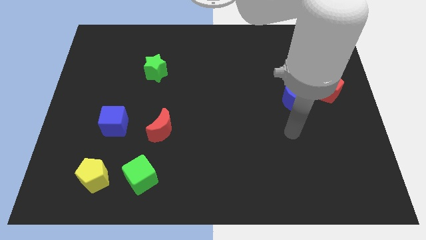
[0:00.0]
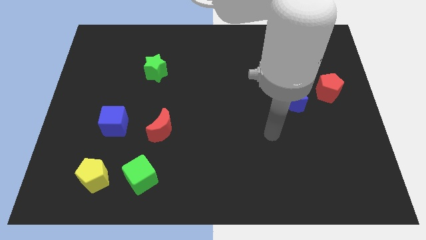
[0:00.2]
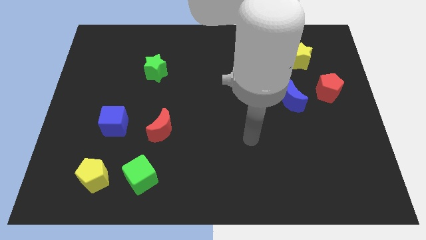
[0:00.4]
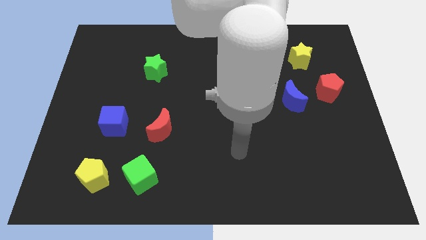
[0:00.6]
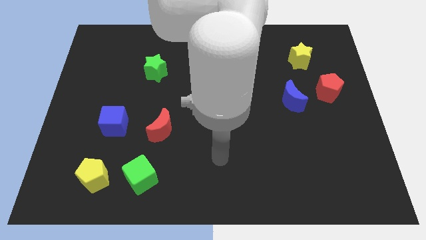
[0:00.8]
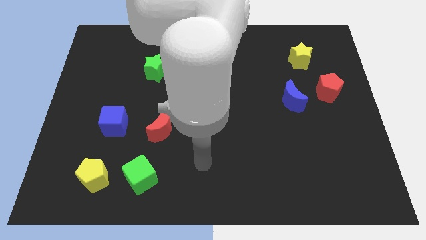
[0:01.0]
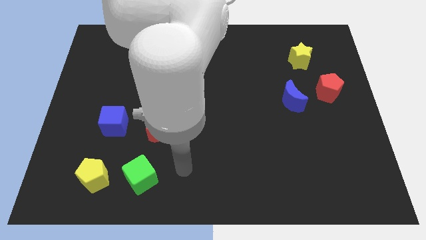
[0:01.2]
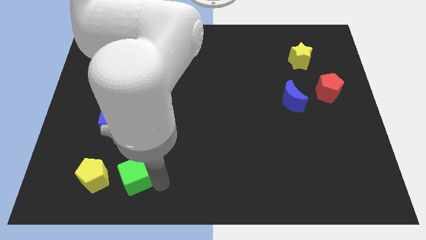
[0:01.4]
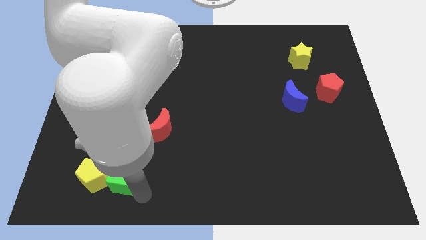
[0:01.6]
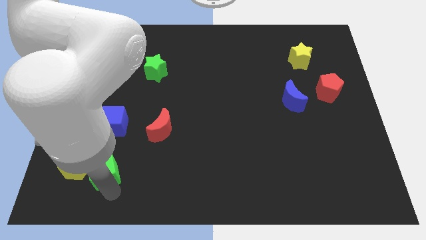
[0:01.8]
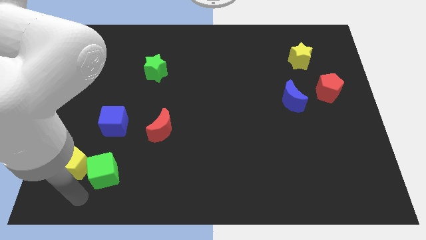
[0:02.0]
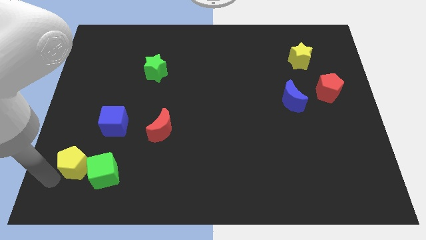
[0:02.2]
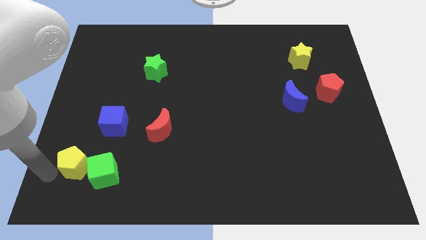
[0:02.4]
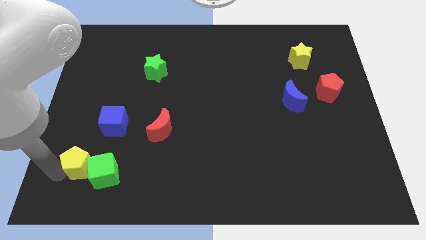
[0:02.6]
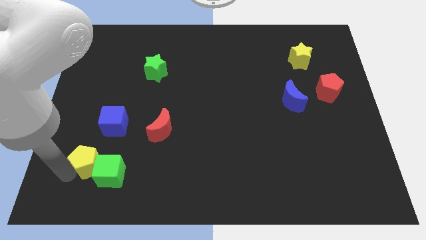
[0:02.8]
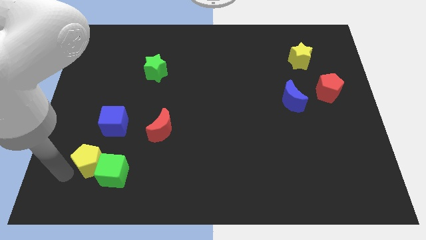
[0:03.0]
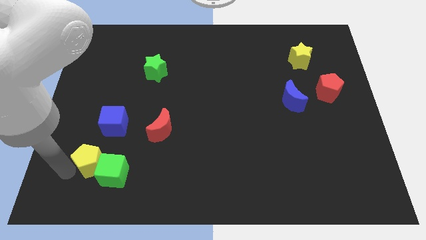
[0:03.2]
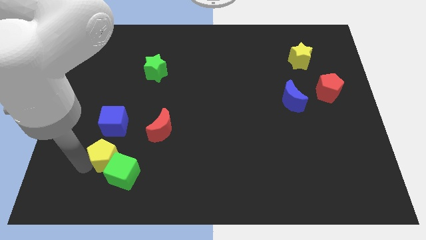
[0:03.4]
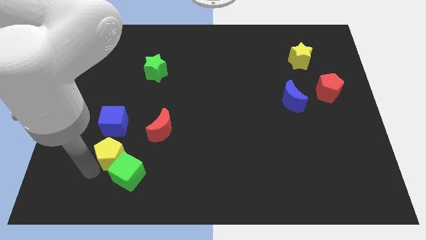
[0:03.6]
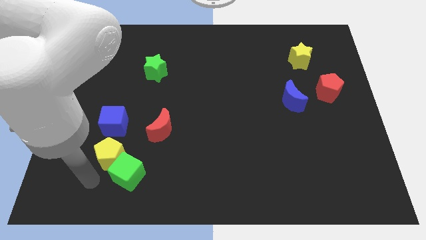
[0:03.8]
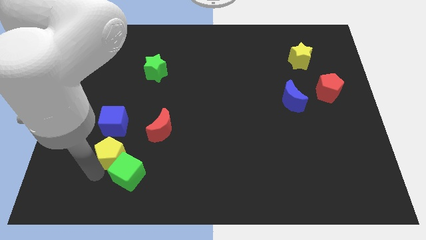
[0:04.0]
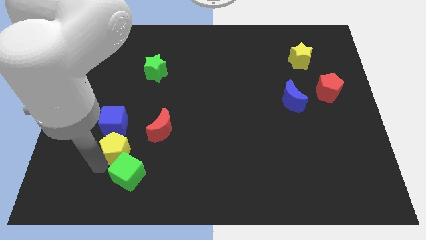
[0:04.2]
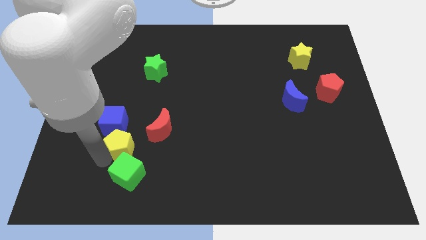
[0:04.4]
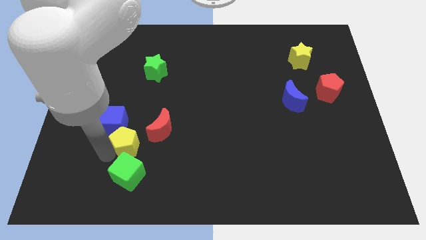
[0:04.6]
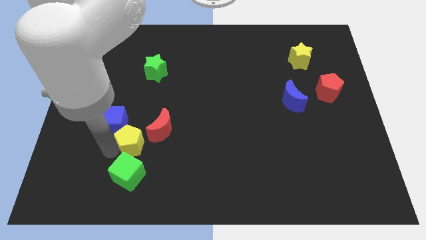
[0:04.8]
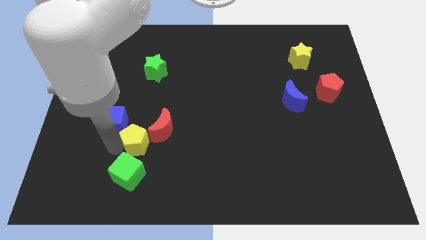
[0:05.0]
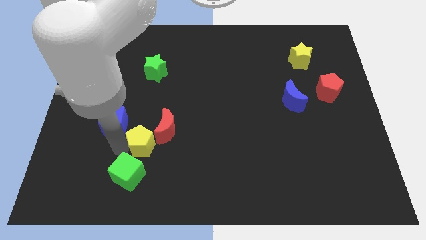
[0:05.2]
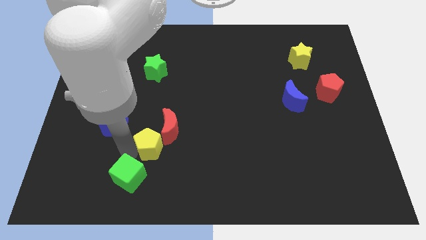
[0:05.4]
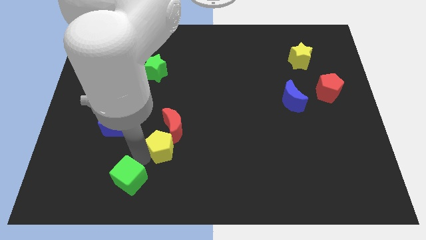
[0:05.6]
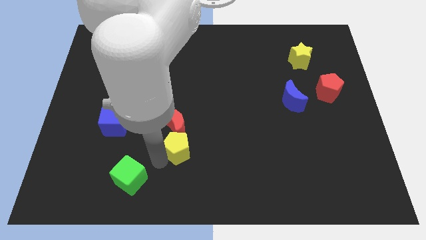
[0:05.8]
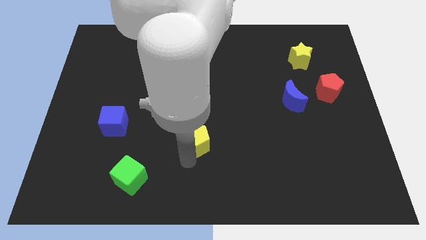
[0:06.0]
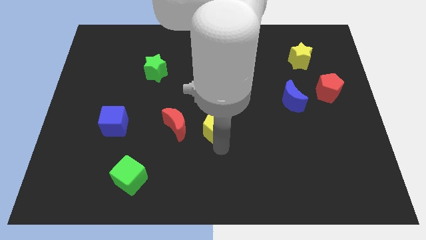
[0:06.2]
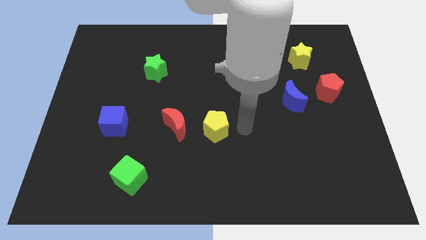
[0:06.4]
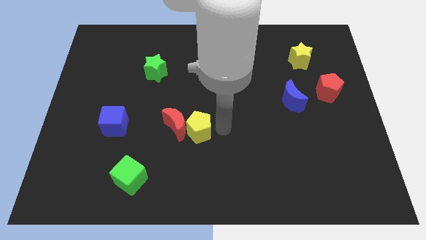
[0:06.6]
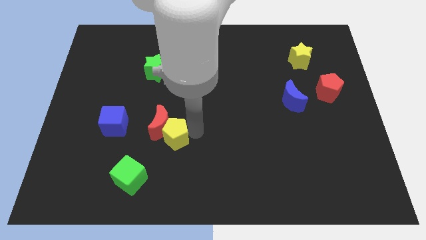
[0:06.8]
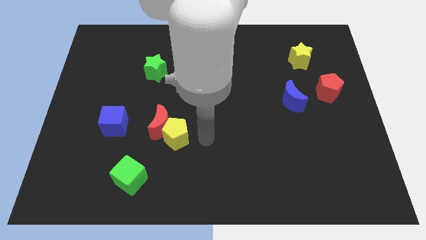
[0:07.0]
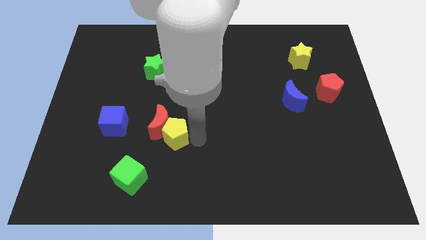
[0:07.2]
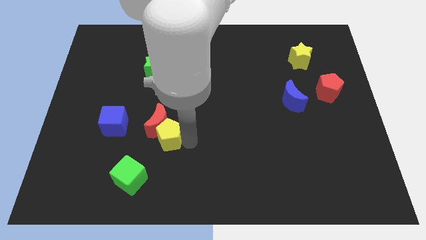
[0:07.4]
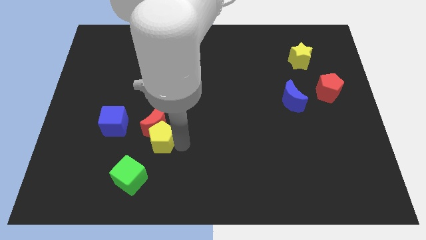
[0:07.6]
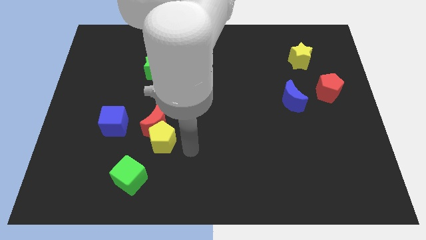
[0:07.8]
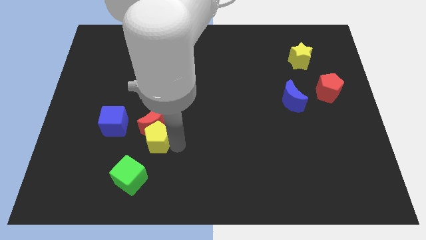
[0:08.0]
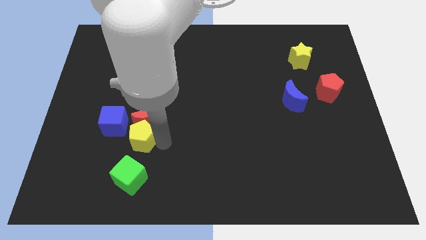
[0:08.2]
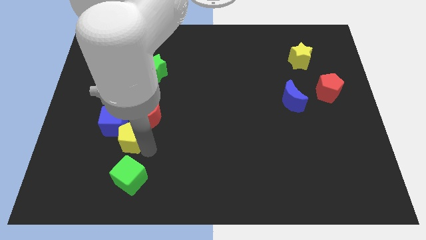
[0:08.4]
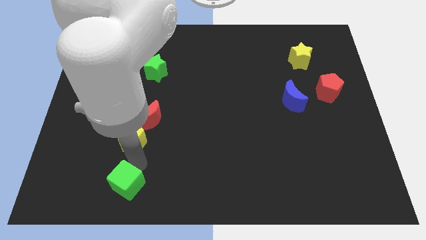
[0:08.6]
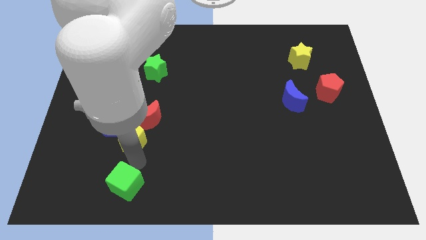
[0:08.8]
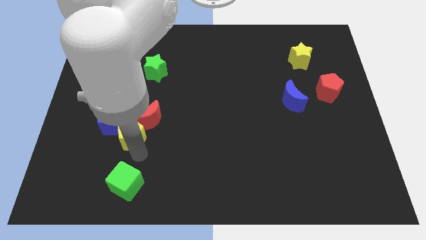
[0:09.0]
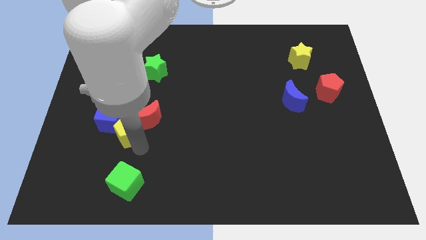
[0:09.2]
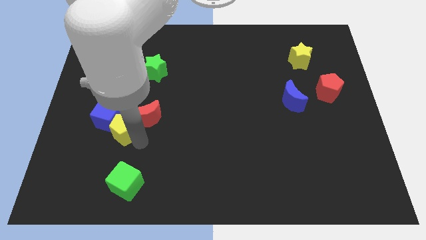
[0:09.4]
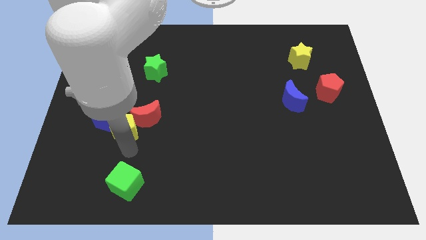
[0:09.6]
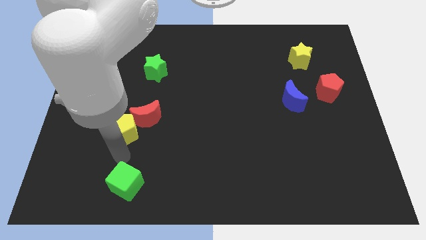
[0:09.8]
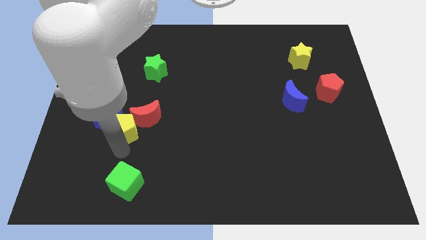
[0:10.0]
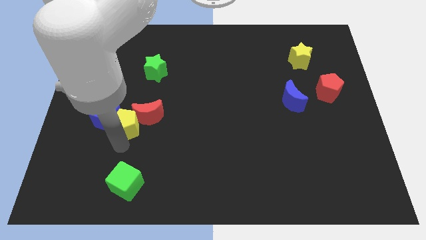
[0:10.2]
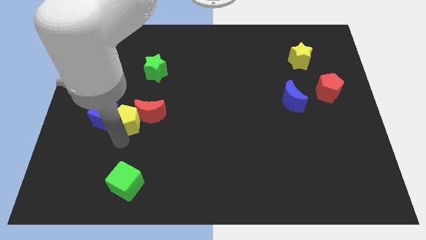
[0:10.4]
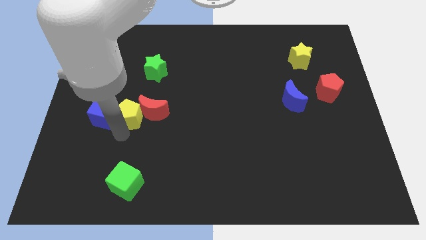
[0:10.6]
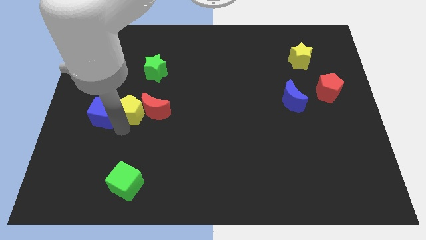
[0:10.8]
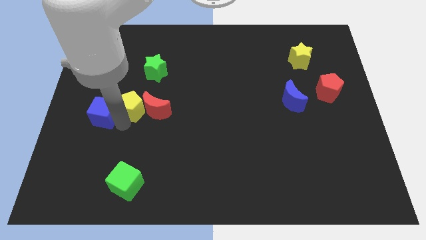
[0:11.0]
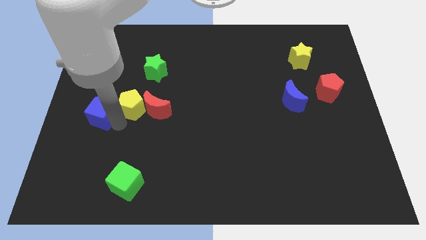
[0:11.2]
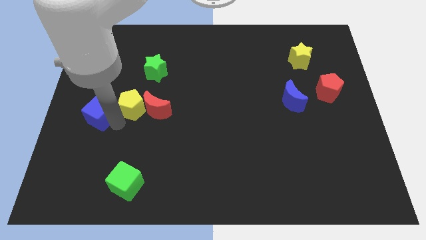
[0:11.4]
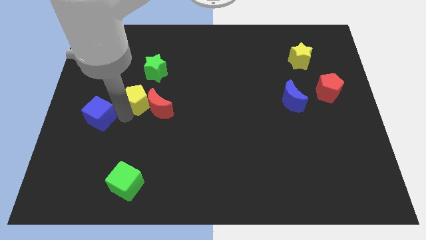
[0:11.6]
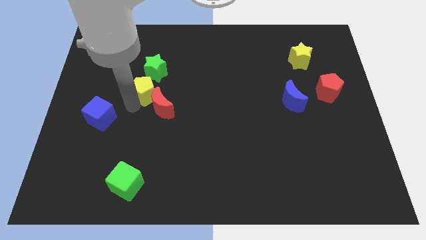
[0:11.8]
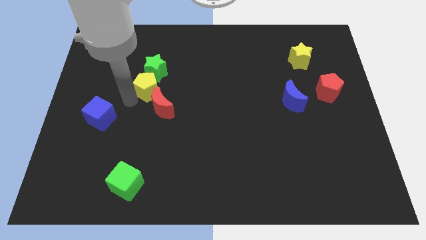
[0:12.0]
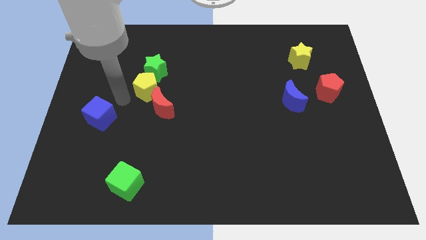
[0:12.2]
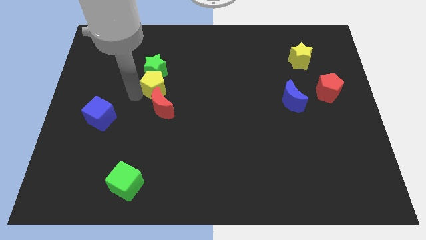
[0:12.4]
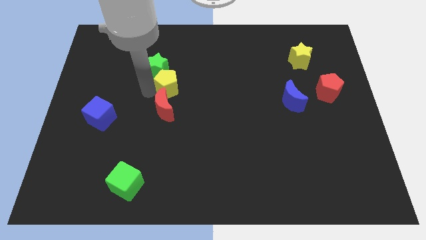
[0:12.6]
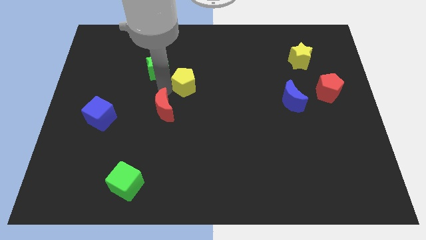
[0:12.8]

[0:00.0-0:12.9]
put the yellow pentagon right of the green star
